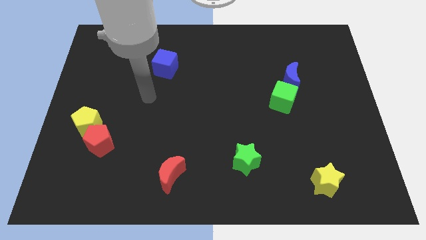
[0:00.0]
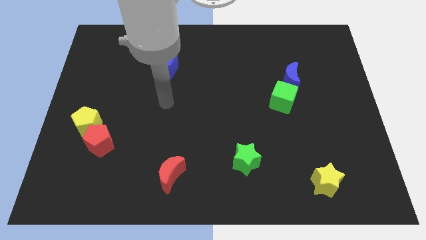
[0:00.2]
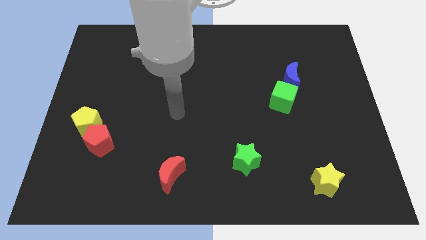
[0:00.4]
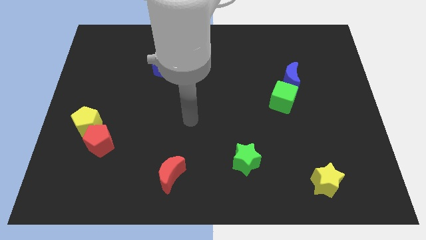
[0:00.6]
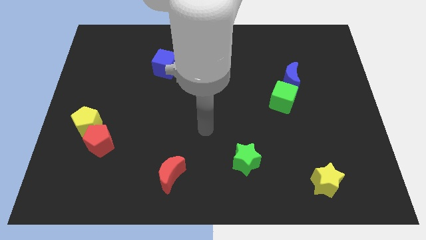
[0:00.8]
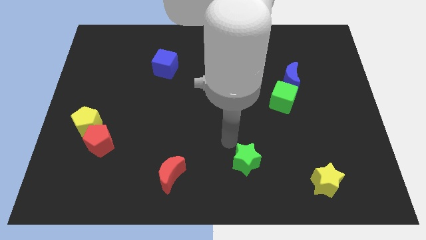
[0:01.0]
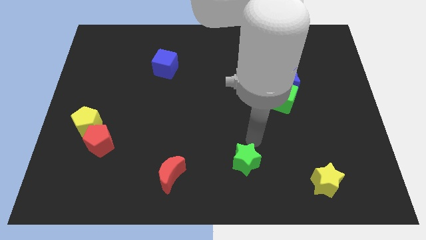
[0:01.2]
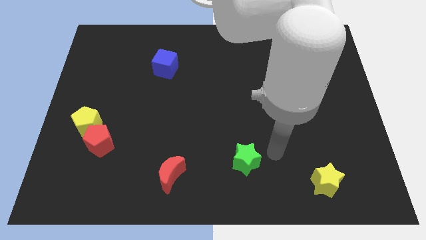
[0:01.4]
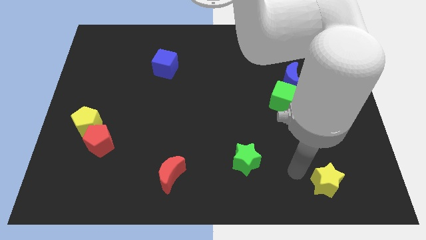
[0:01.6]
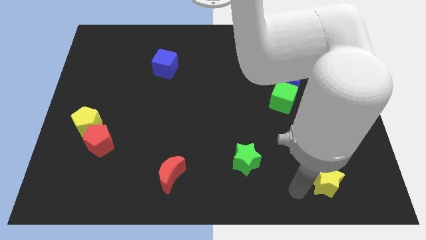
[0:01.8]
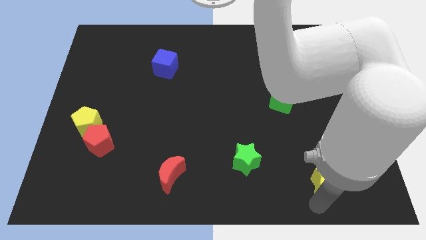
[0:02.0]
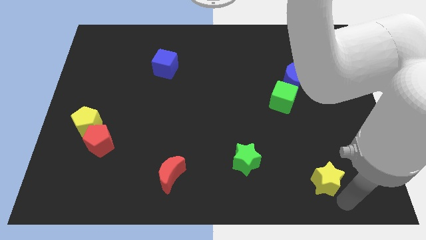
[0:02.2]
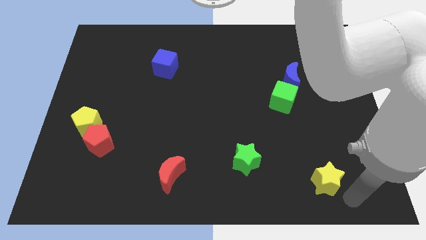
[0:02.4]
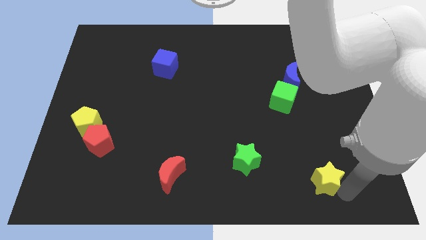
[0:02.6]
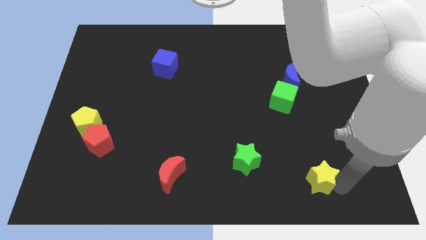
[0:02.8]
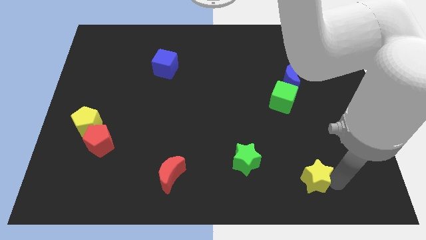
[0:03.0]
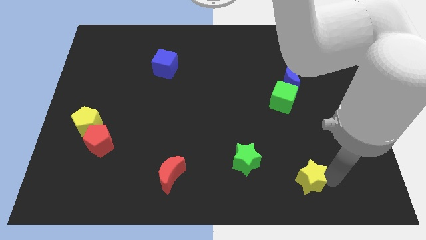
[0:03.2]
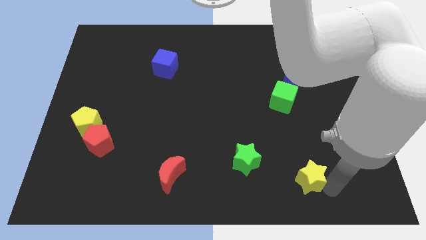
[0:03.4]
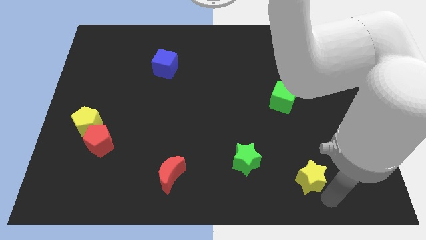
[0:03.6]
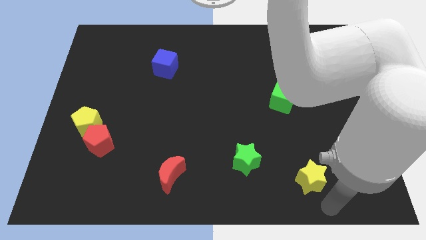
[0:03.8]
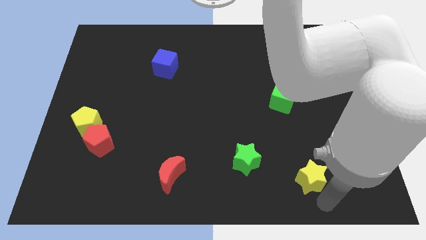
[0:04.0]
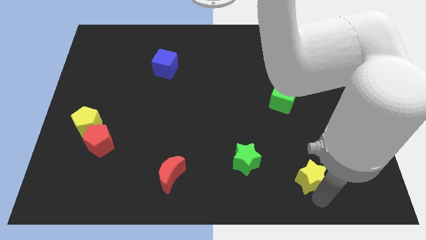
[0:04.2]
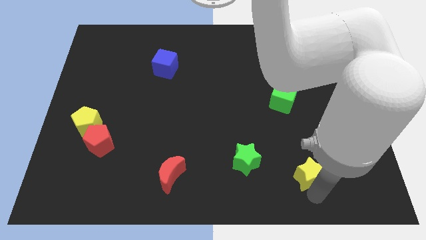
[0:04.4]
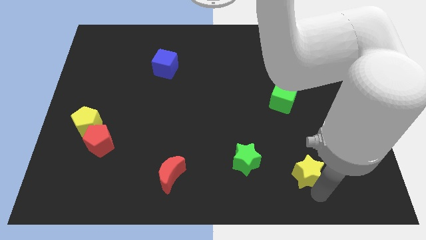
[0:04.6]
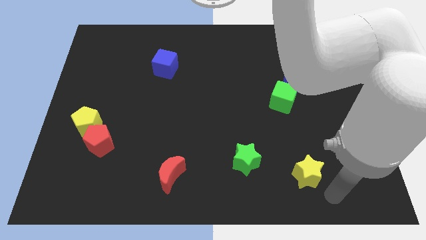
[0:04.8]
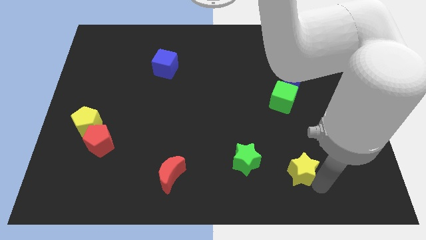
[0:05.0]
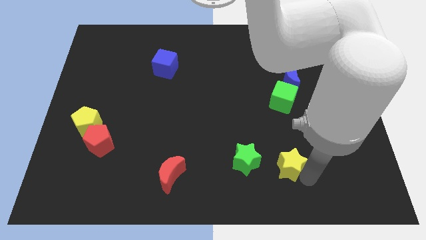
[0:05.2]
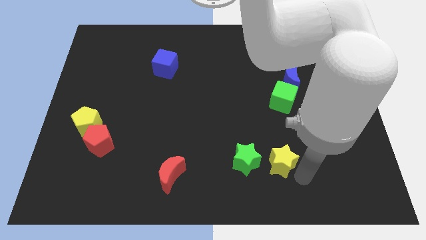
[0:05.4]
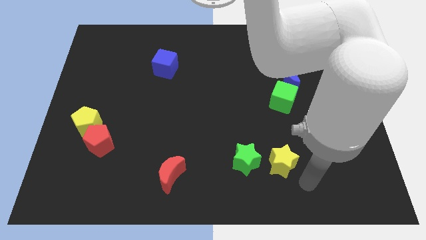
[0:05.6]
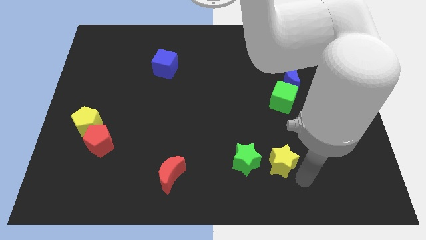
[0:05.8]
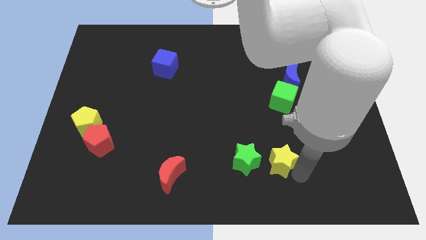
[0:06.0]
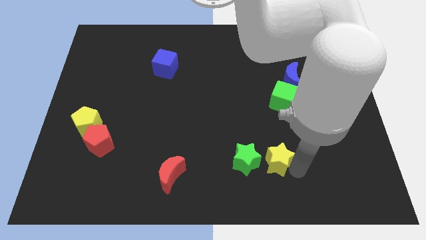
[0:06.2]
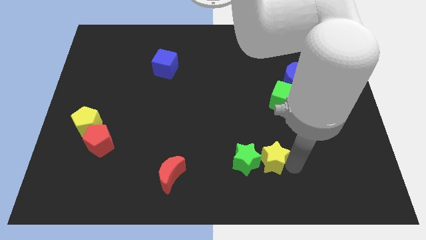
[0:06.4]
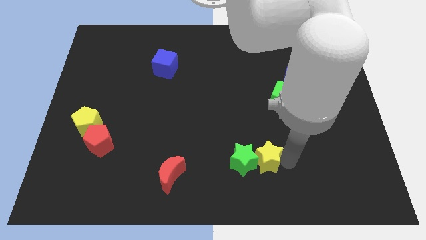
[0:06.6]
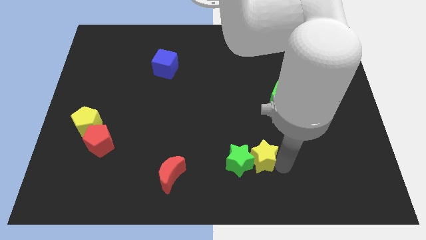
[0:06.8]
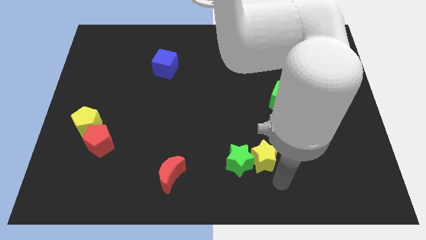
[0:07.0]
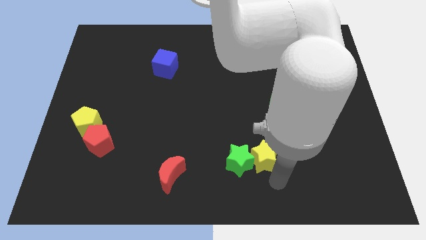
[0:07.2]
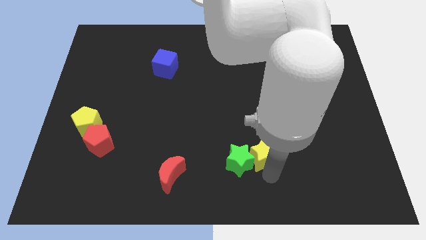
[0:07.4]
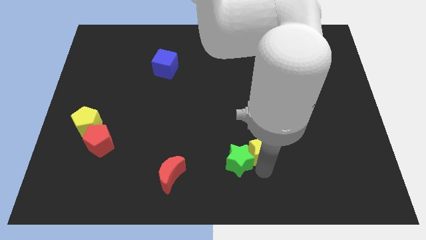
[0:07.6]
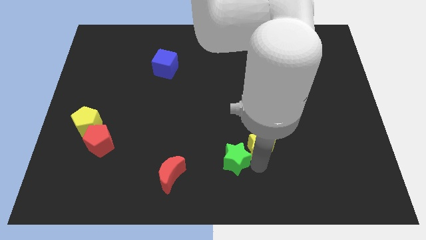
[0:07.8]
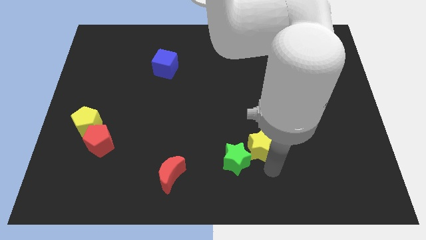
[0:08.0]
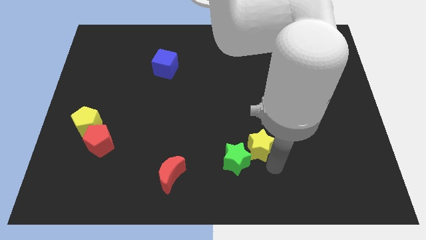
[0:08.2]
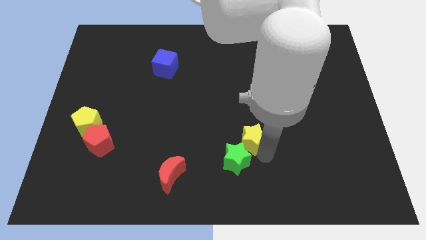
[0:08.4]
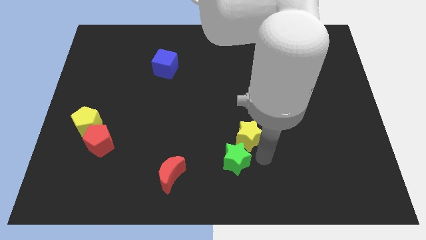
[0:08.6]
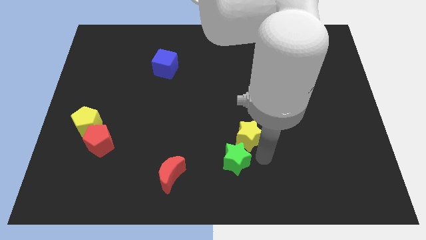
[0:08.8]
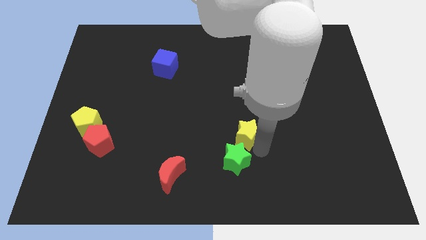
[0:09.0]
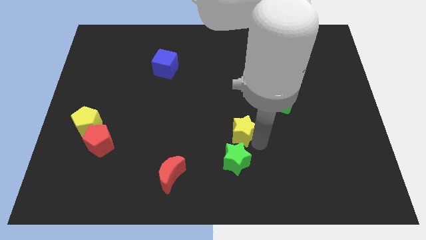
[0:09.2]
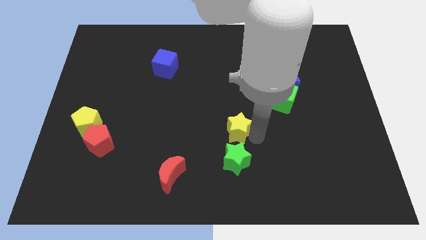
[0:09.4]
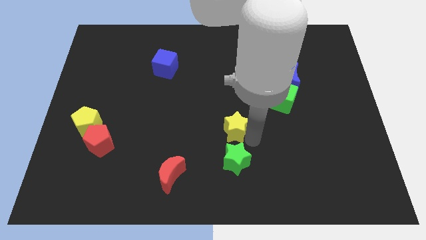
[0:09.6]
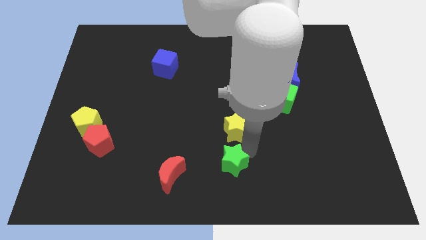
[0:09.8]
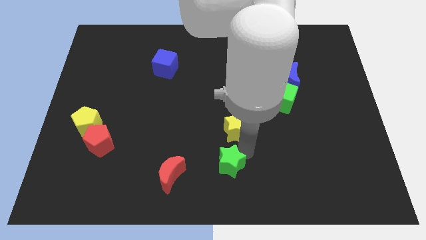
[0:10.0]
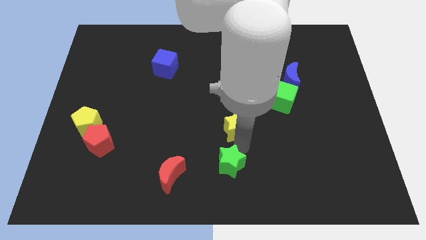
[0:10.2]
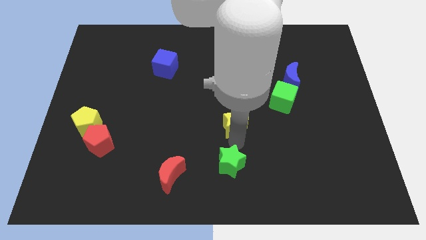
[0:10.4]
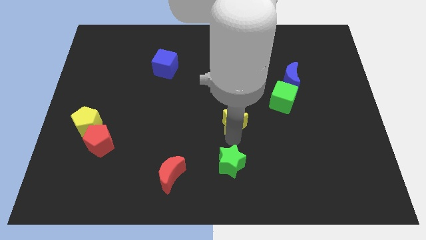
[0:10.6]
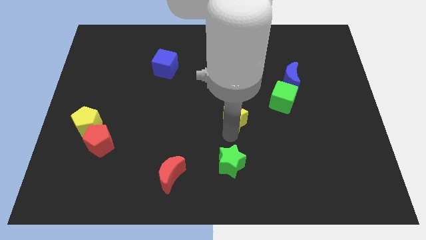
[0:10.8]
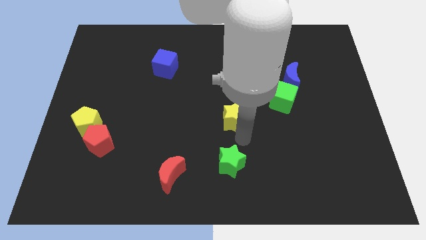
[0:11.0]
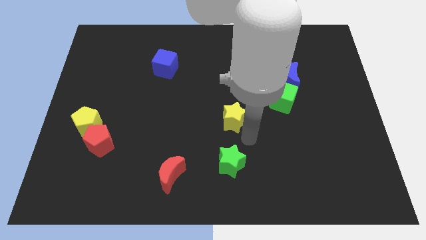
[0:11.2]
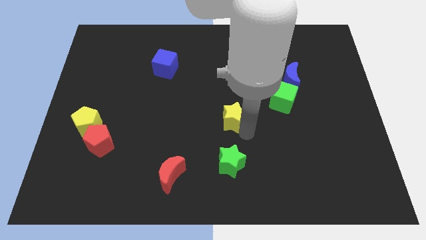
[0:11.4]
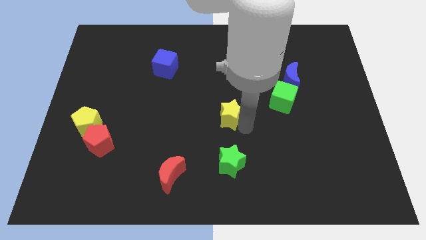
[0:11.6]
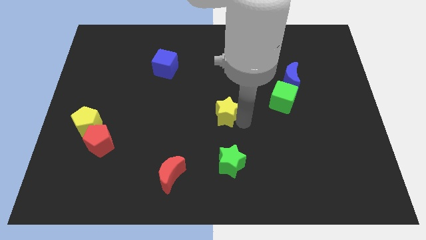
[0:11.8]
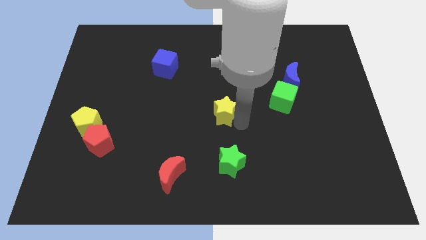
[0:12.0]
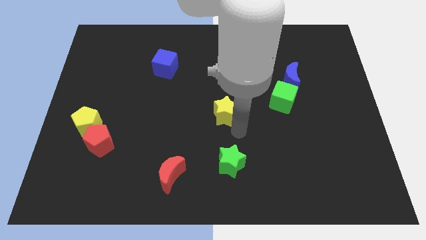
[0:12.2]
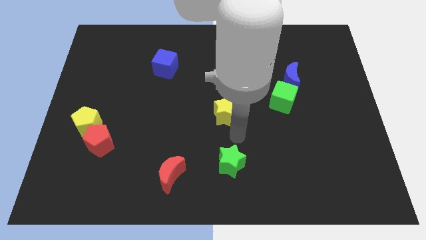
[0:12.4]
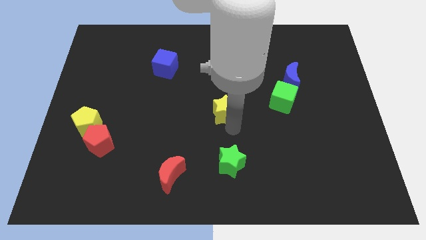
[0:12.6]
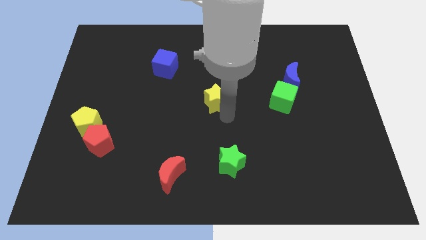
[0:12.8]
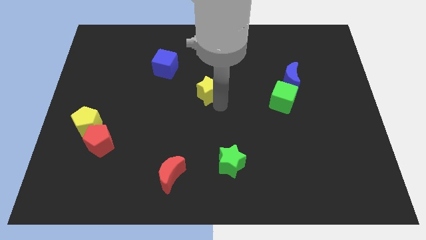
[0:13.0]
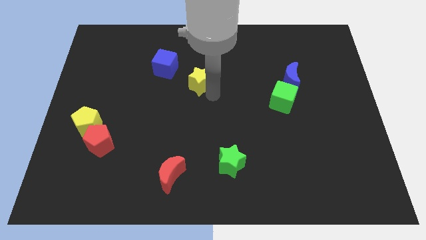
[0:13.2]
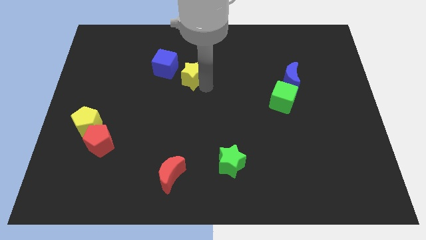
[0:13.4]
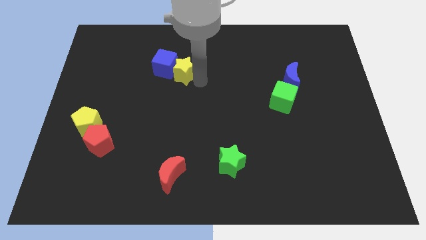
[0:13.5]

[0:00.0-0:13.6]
put the yellow star next to the blue cube
